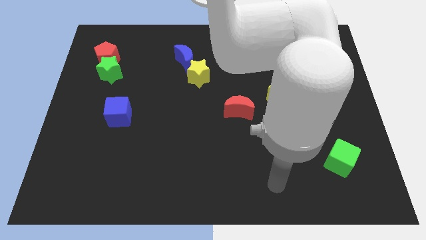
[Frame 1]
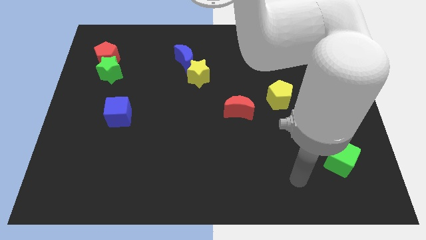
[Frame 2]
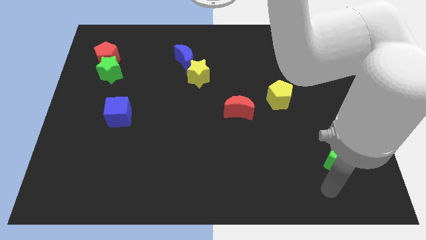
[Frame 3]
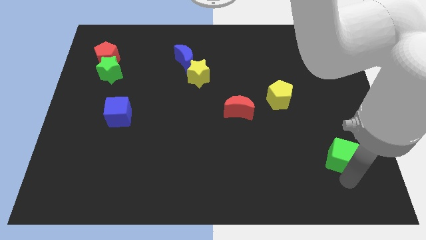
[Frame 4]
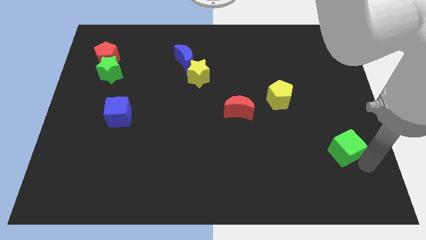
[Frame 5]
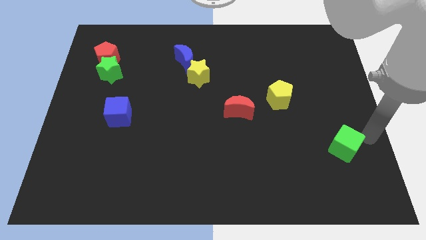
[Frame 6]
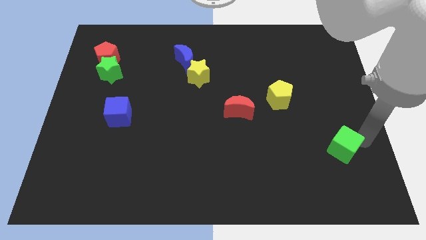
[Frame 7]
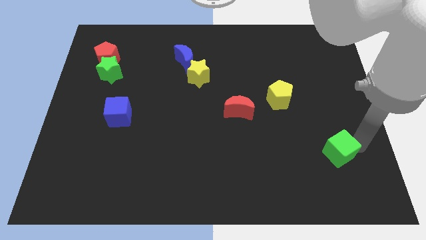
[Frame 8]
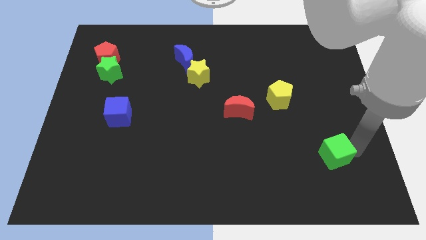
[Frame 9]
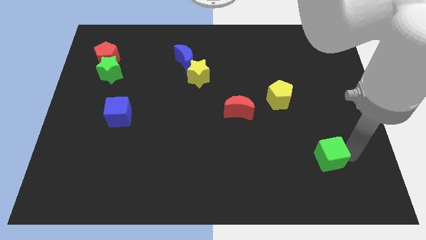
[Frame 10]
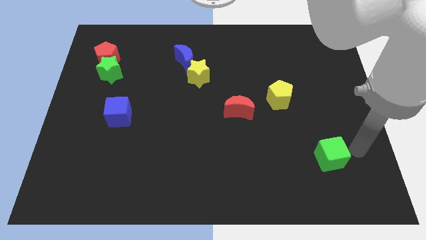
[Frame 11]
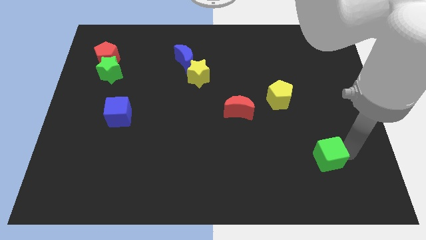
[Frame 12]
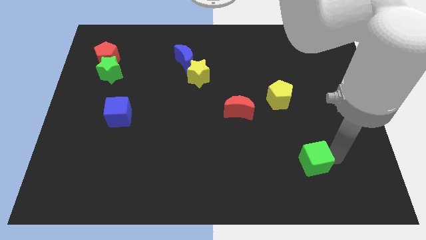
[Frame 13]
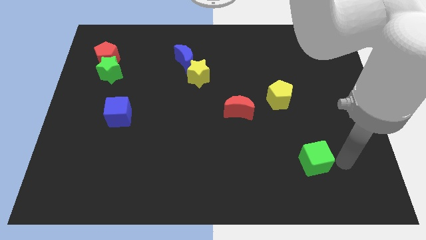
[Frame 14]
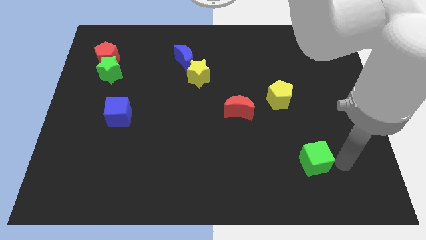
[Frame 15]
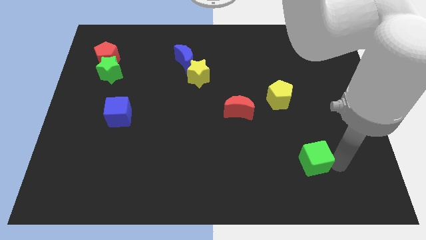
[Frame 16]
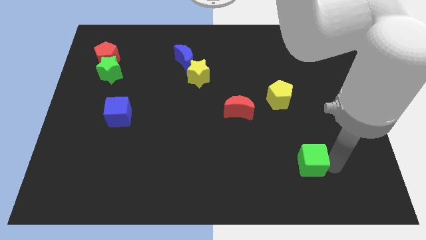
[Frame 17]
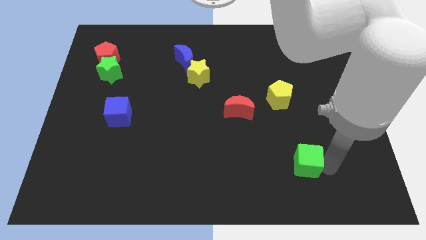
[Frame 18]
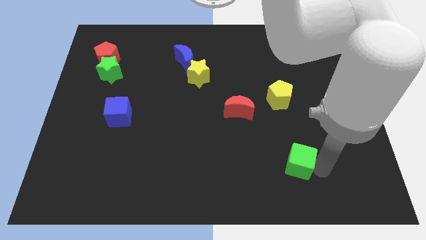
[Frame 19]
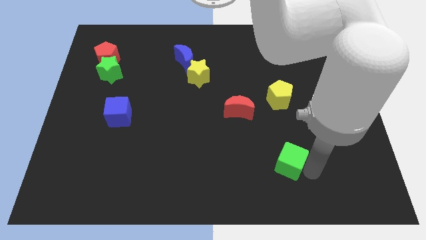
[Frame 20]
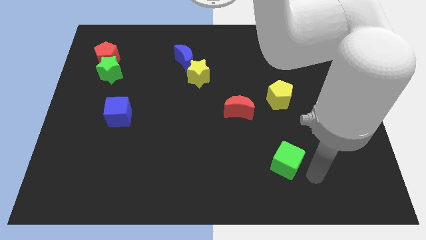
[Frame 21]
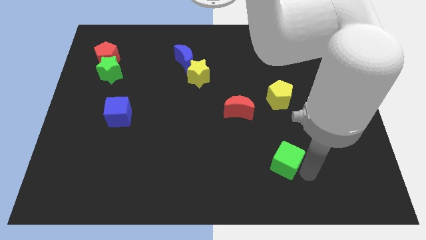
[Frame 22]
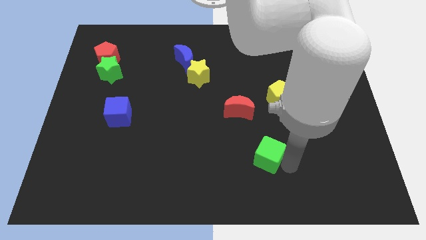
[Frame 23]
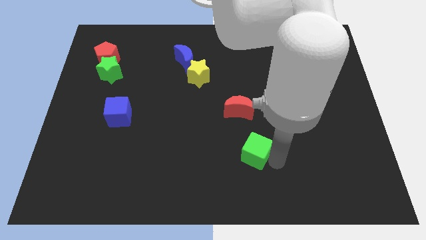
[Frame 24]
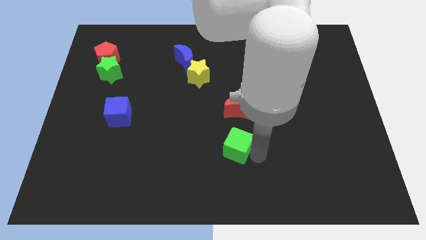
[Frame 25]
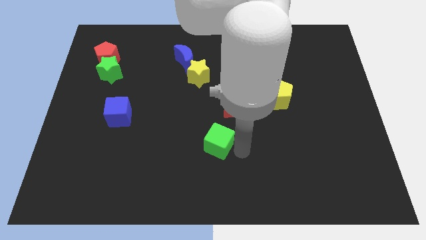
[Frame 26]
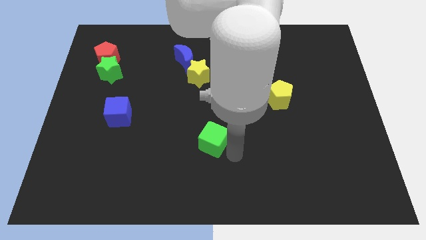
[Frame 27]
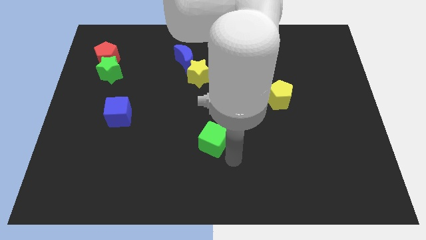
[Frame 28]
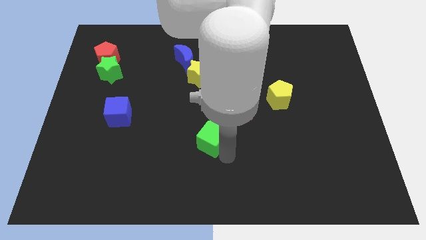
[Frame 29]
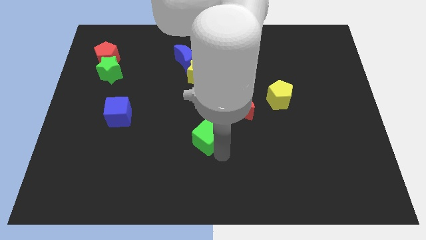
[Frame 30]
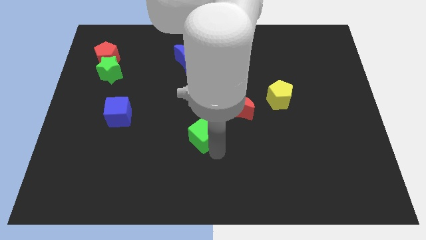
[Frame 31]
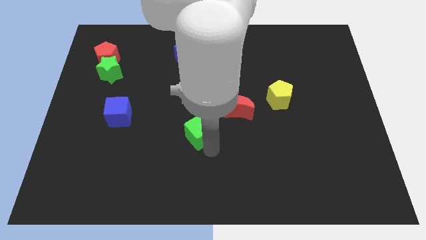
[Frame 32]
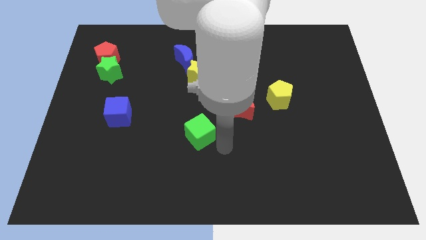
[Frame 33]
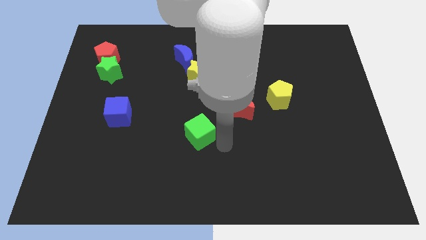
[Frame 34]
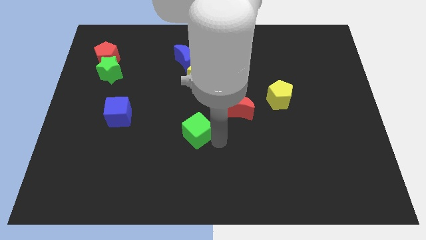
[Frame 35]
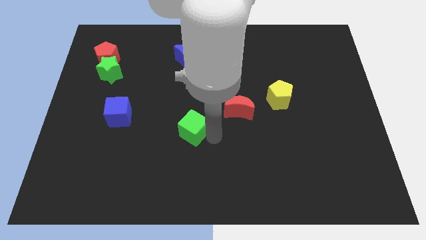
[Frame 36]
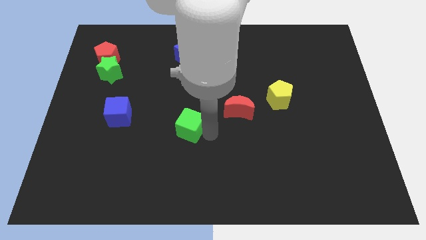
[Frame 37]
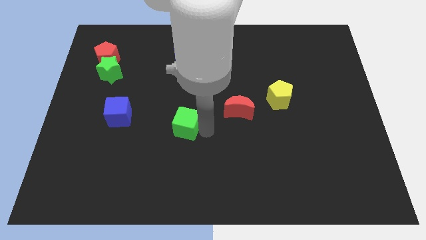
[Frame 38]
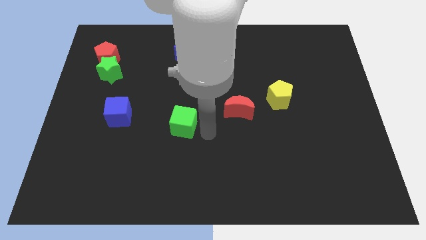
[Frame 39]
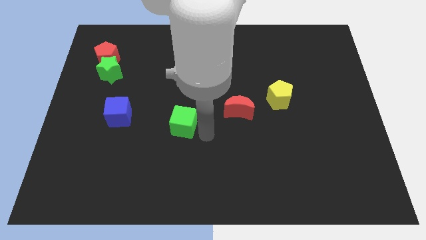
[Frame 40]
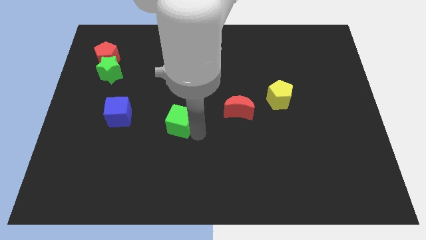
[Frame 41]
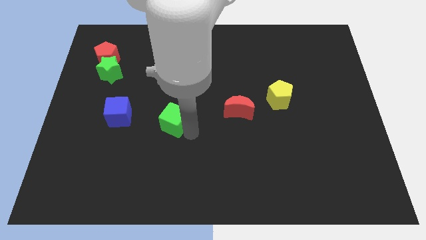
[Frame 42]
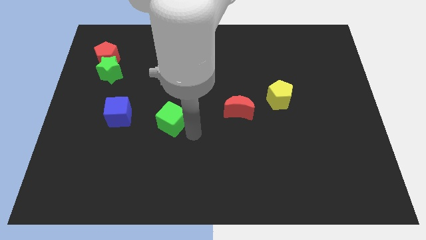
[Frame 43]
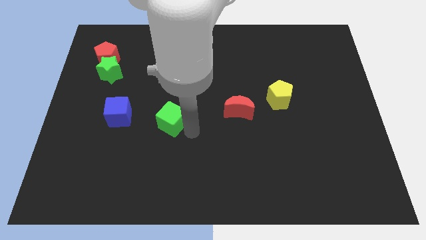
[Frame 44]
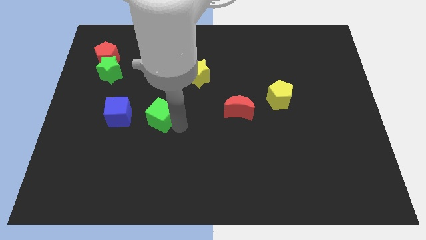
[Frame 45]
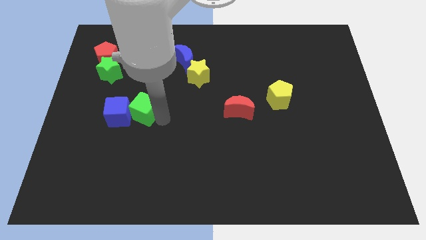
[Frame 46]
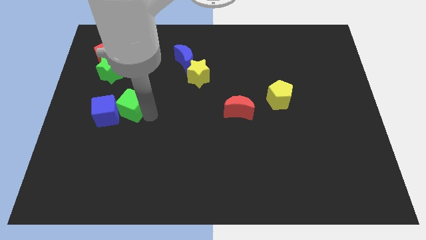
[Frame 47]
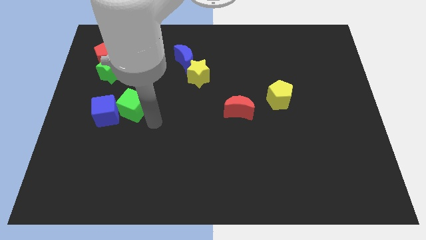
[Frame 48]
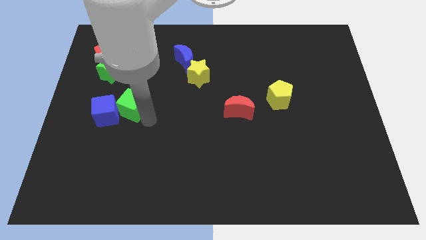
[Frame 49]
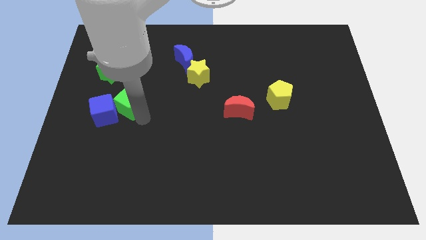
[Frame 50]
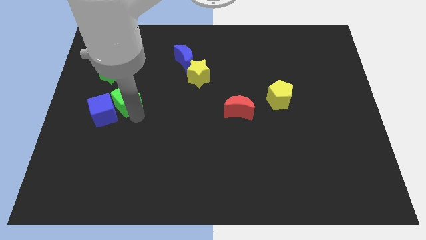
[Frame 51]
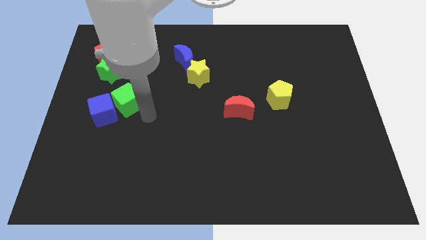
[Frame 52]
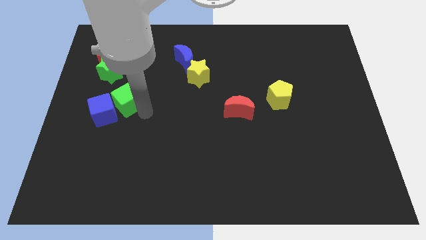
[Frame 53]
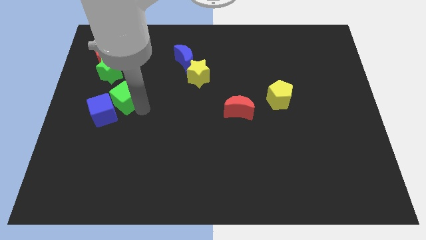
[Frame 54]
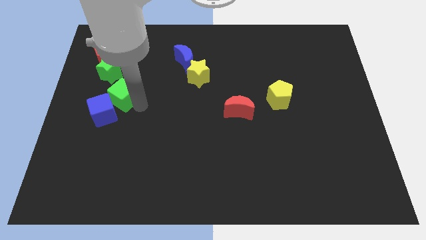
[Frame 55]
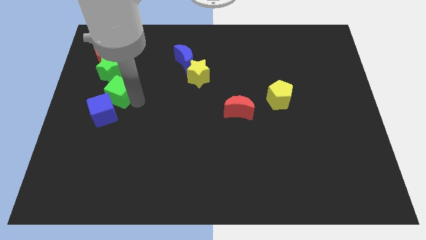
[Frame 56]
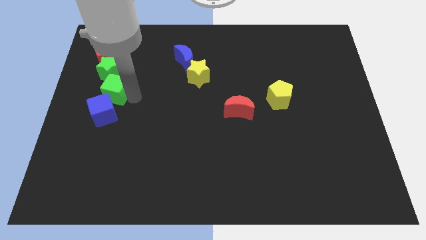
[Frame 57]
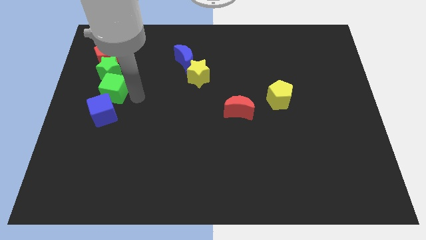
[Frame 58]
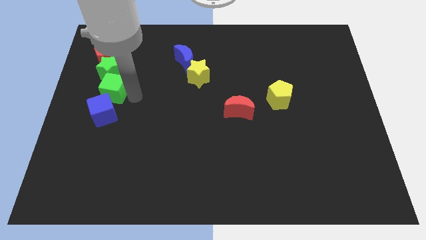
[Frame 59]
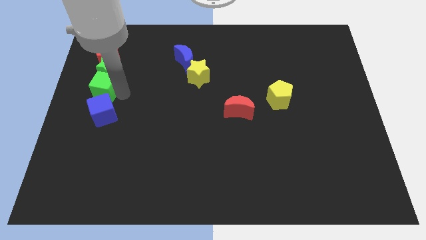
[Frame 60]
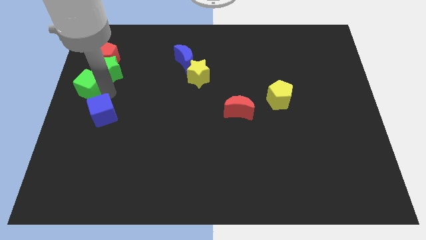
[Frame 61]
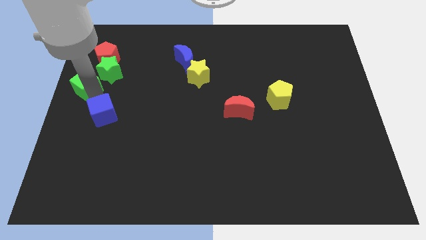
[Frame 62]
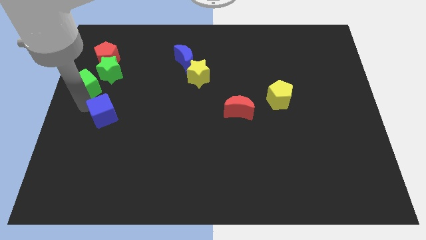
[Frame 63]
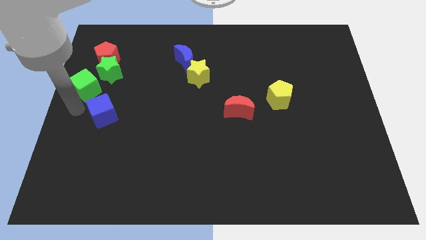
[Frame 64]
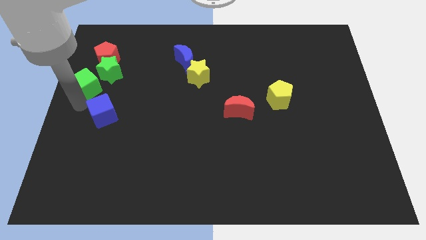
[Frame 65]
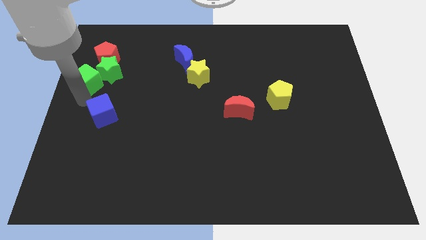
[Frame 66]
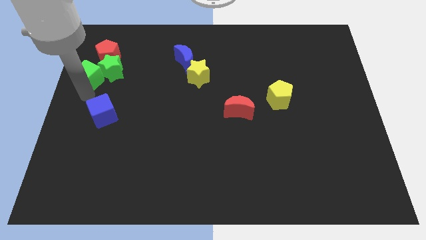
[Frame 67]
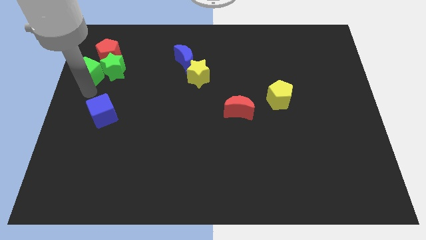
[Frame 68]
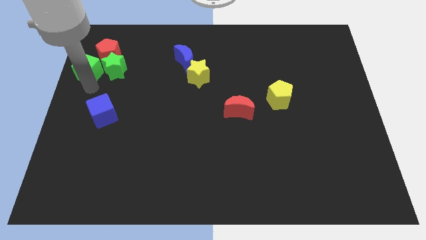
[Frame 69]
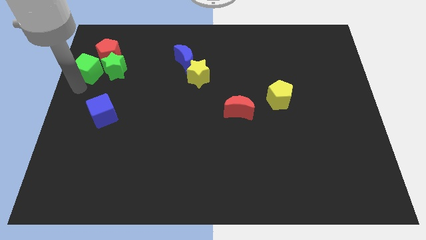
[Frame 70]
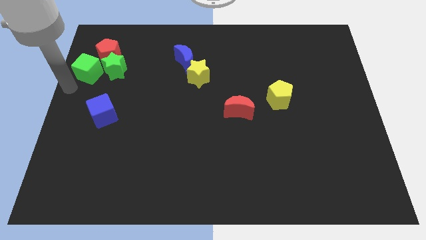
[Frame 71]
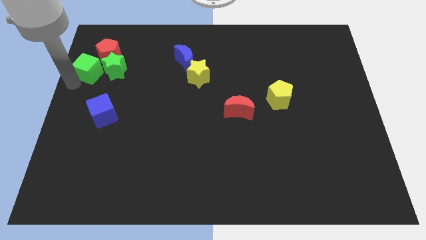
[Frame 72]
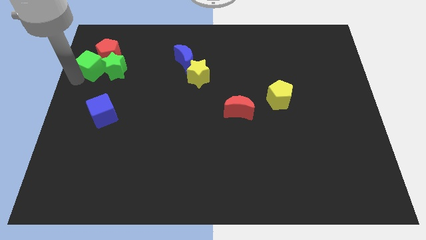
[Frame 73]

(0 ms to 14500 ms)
put the green cube next to the red pentagon
